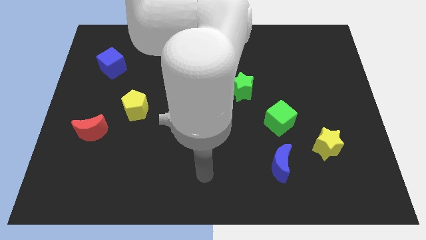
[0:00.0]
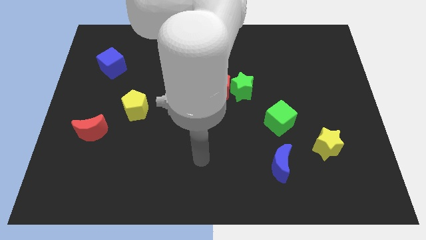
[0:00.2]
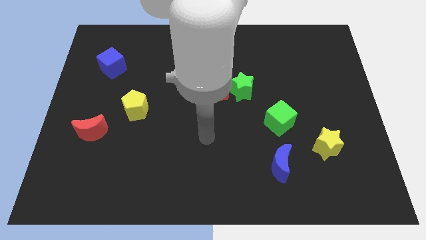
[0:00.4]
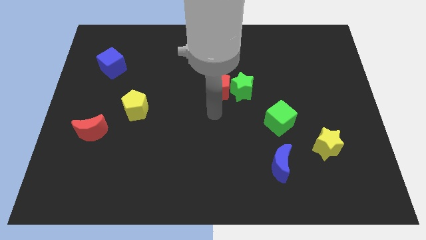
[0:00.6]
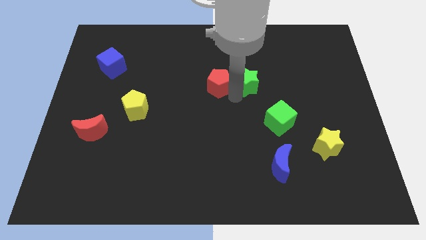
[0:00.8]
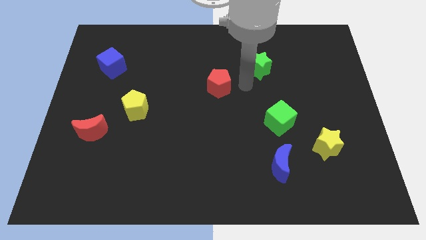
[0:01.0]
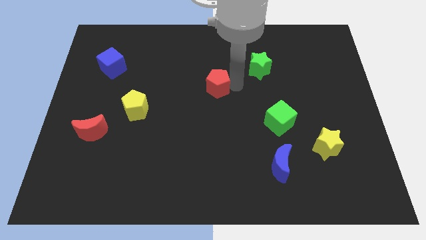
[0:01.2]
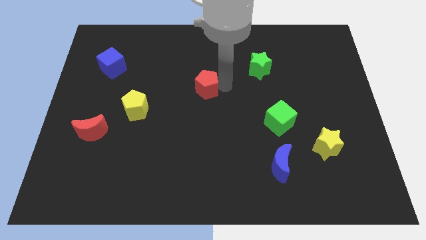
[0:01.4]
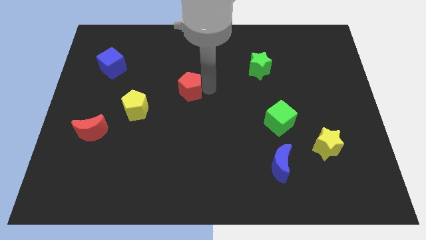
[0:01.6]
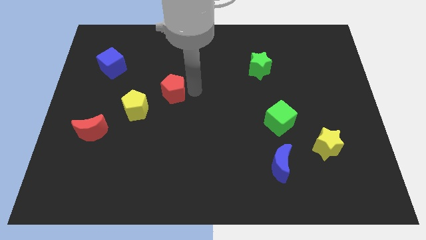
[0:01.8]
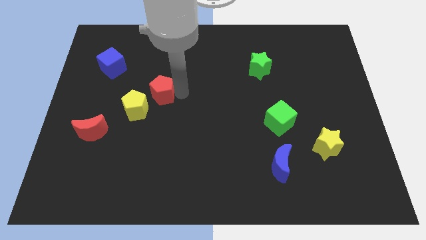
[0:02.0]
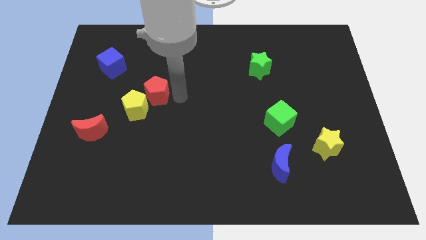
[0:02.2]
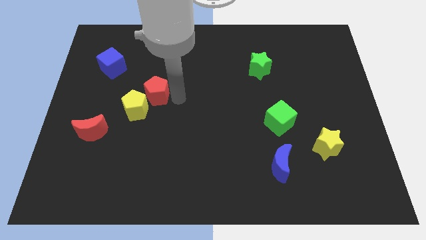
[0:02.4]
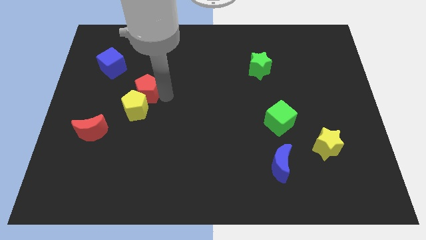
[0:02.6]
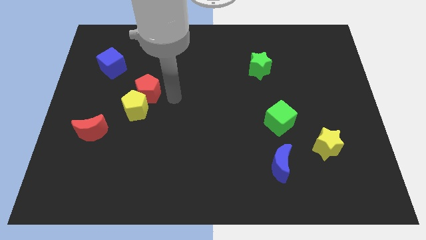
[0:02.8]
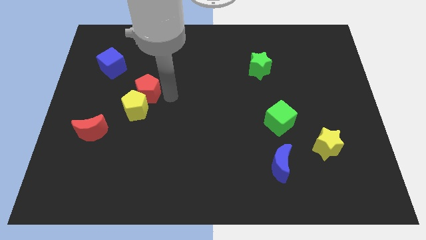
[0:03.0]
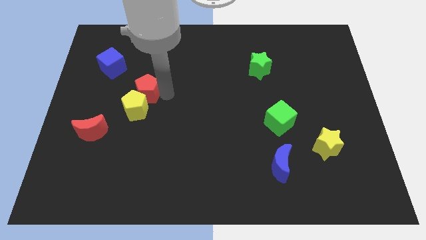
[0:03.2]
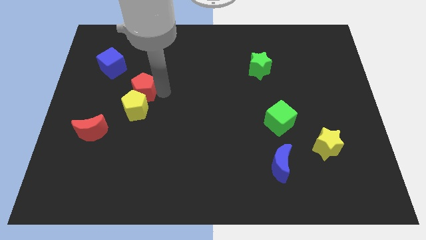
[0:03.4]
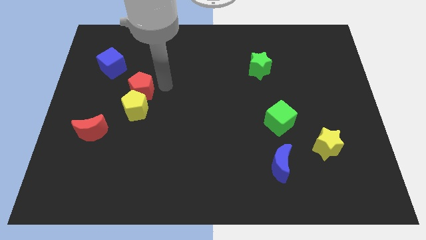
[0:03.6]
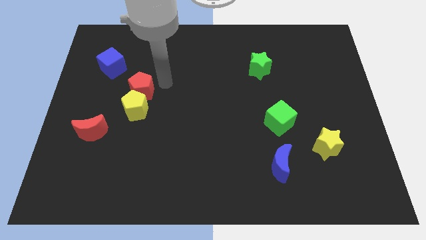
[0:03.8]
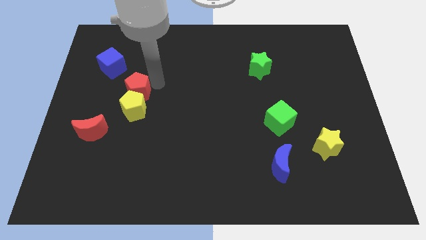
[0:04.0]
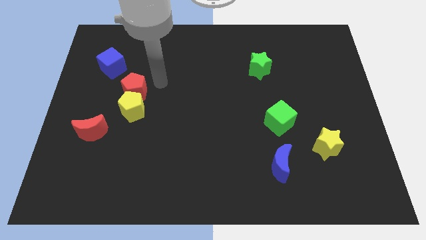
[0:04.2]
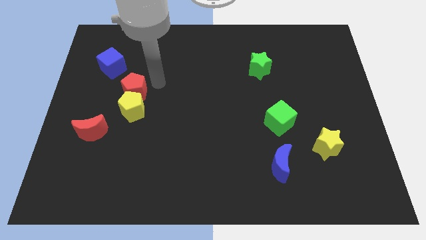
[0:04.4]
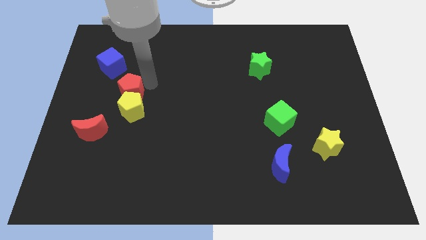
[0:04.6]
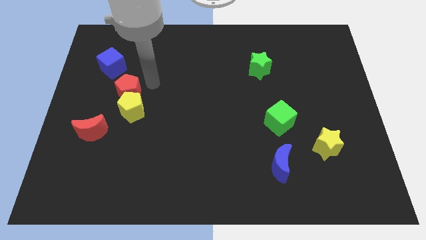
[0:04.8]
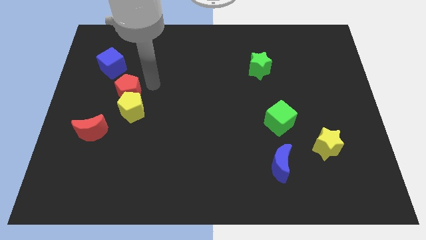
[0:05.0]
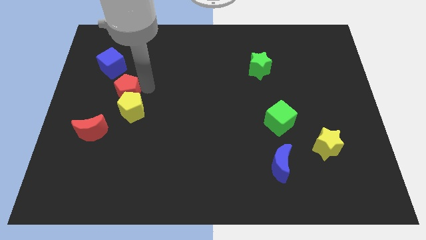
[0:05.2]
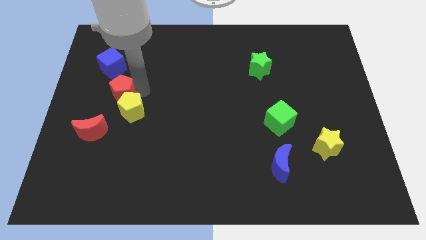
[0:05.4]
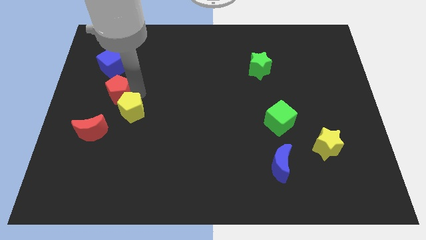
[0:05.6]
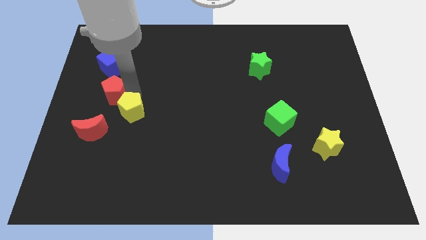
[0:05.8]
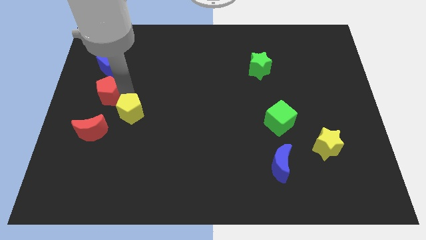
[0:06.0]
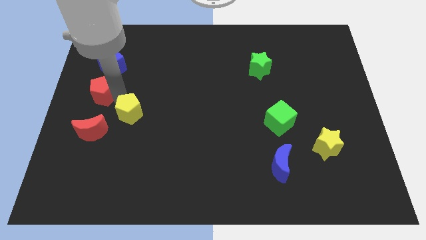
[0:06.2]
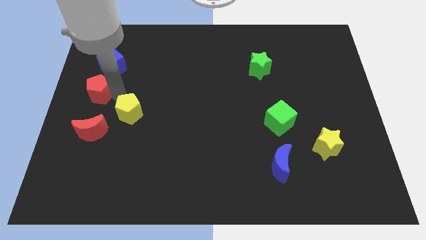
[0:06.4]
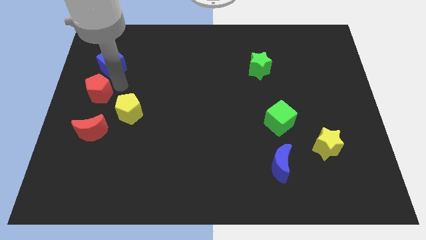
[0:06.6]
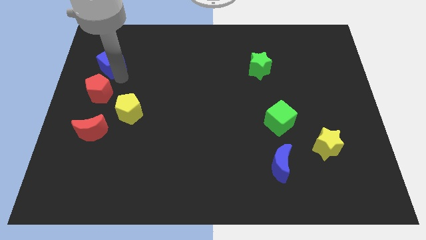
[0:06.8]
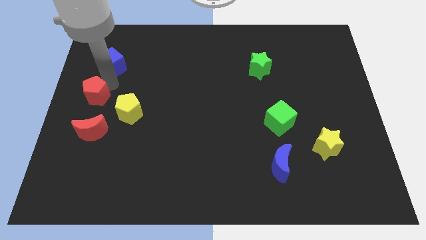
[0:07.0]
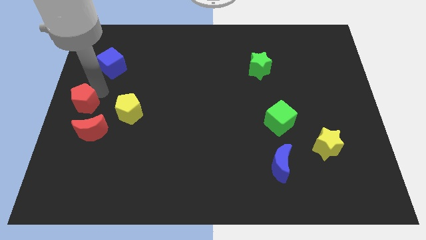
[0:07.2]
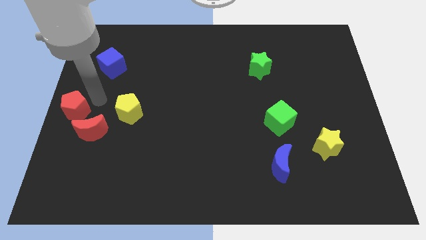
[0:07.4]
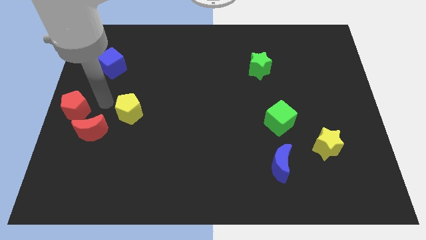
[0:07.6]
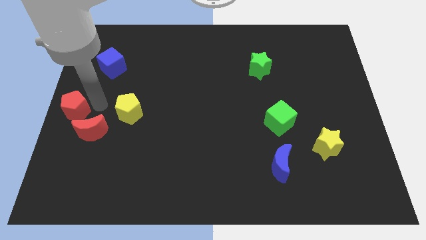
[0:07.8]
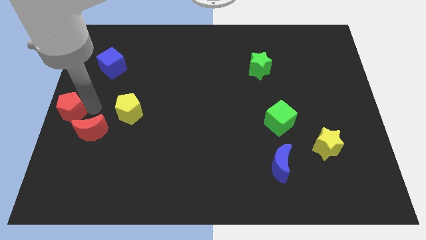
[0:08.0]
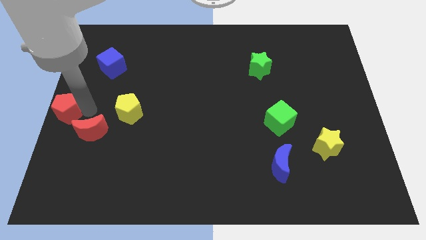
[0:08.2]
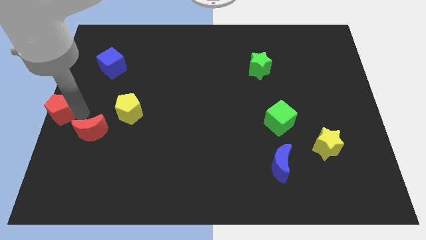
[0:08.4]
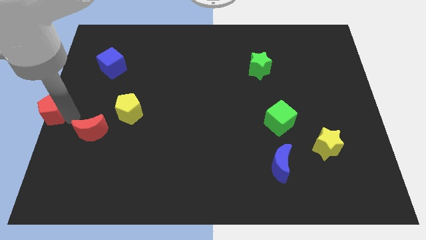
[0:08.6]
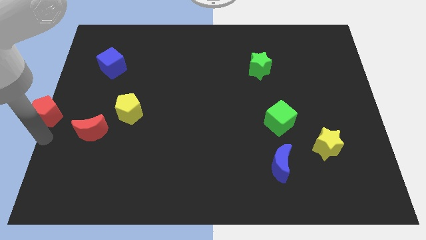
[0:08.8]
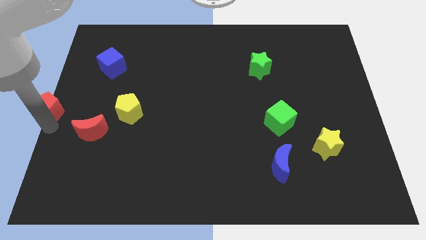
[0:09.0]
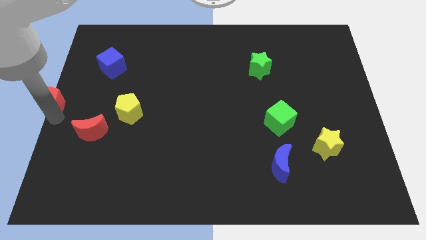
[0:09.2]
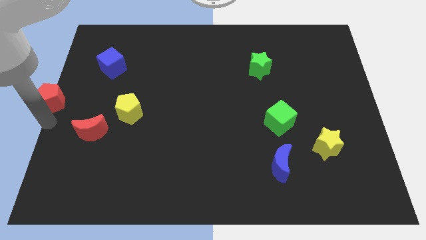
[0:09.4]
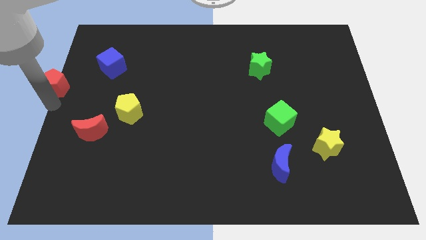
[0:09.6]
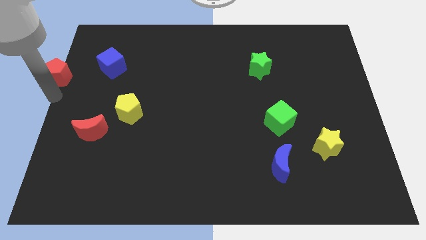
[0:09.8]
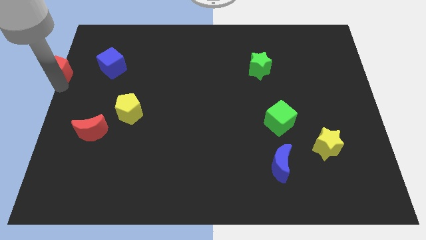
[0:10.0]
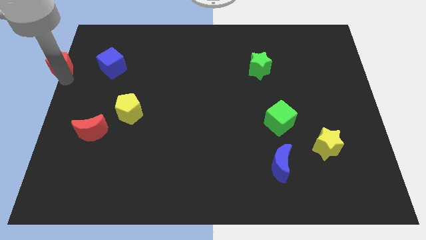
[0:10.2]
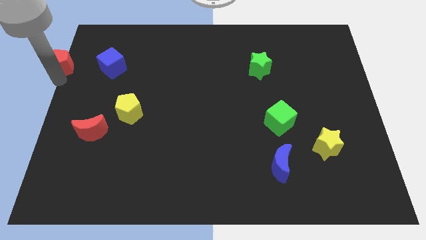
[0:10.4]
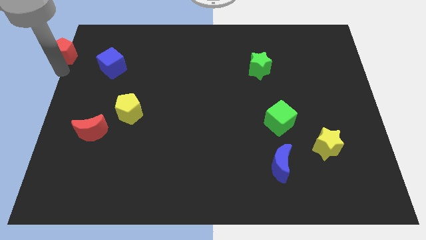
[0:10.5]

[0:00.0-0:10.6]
move the red pentagon to the upper left corner

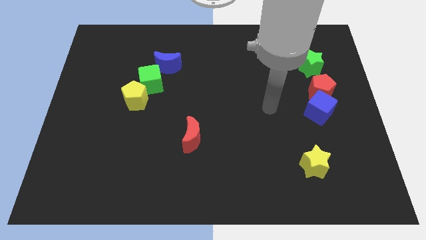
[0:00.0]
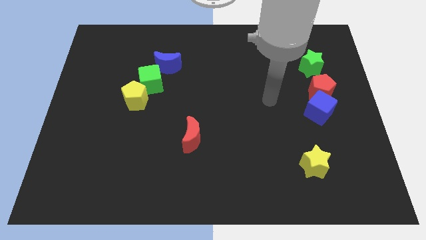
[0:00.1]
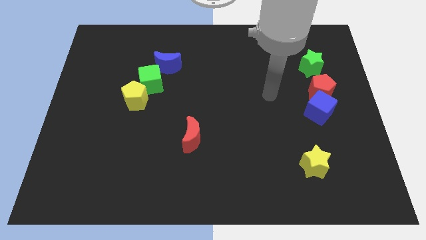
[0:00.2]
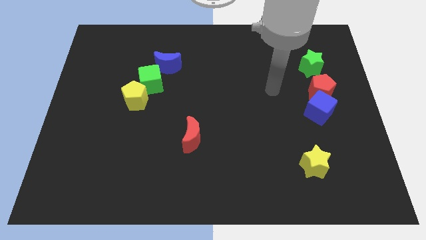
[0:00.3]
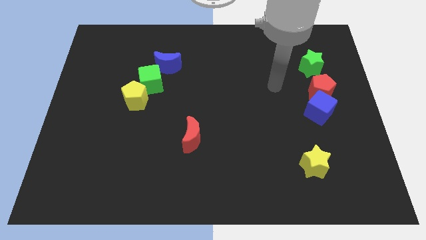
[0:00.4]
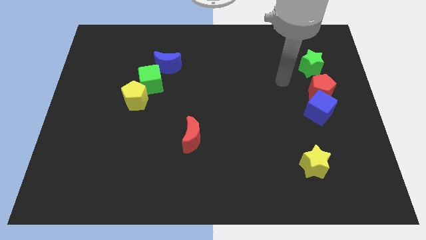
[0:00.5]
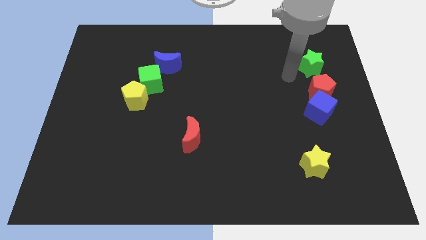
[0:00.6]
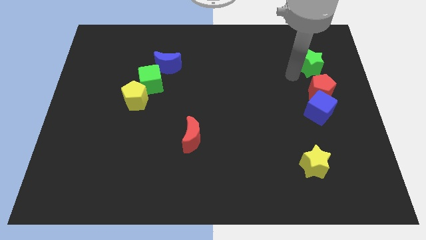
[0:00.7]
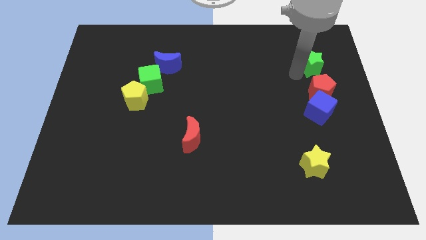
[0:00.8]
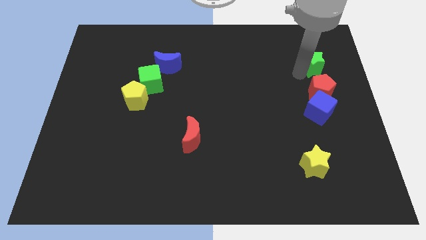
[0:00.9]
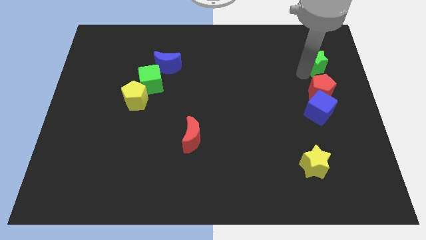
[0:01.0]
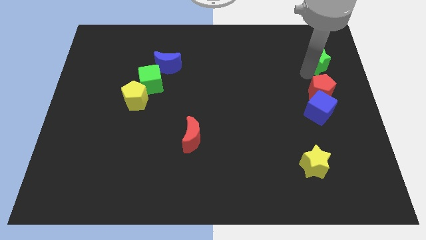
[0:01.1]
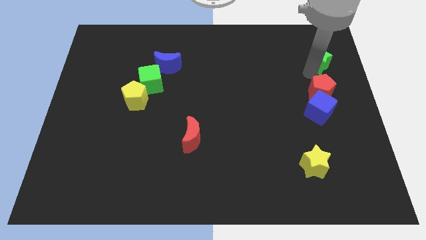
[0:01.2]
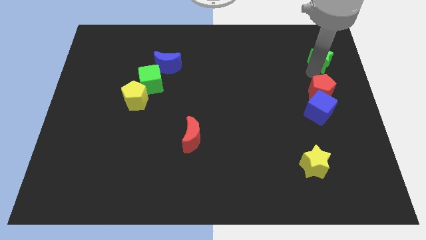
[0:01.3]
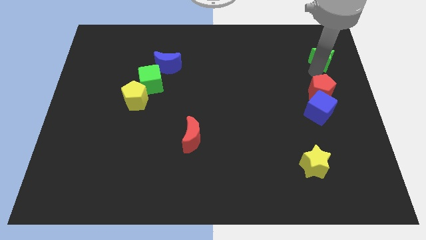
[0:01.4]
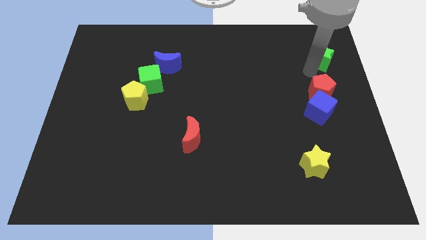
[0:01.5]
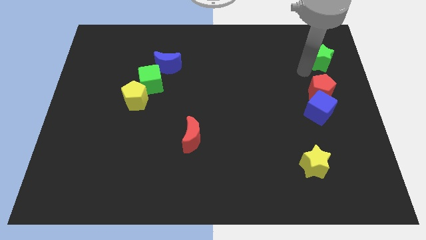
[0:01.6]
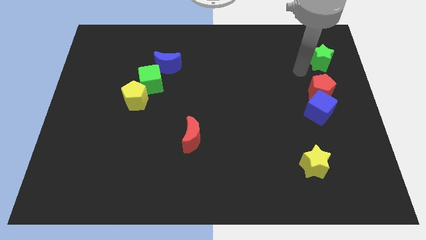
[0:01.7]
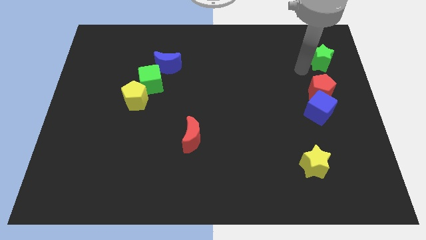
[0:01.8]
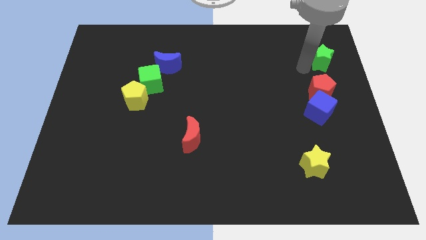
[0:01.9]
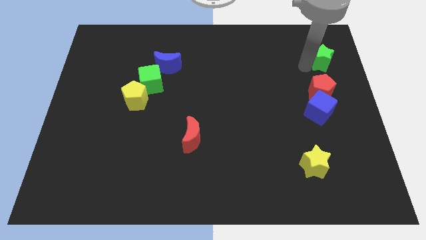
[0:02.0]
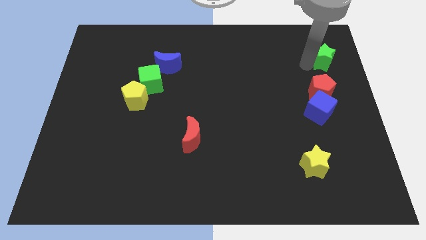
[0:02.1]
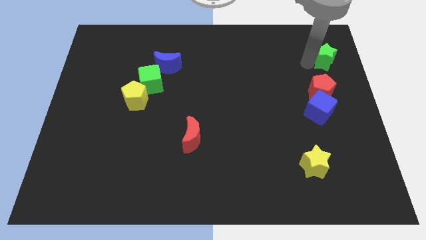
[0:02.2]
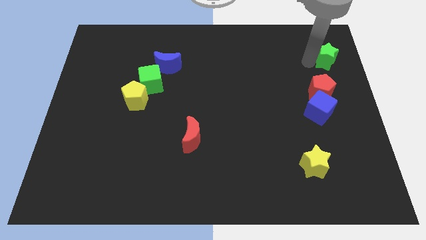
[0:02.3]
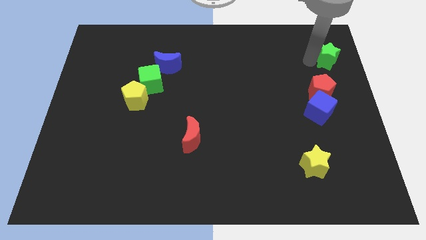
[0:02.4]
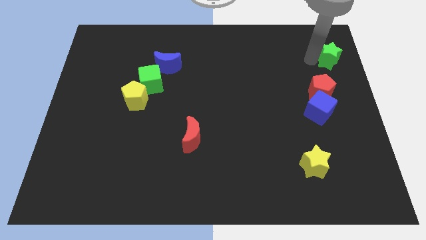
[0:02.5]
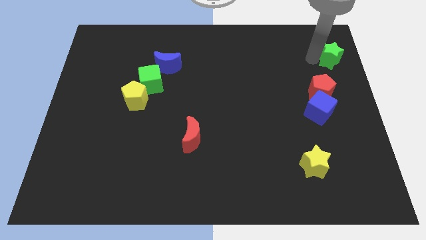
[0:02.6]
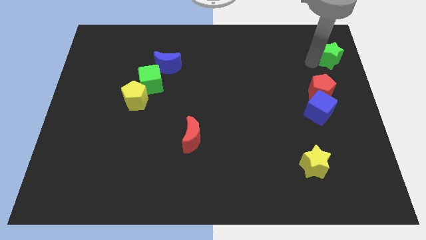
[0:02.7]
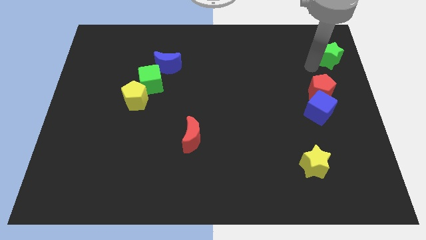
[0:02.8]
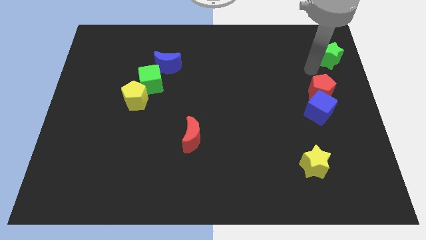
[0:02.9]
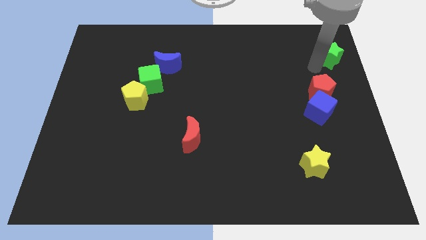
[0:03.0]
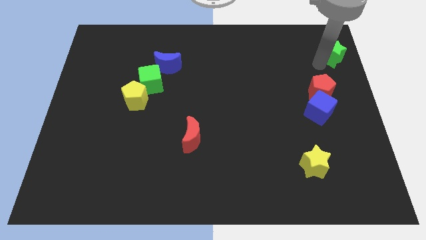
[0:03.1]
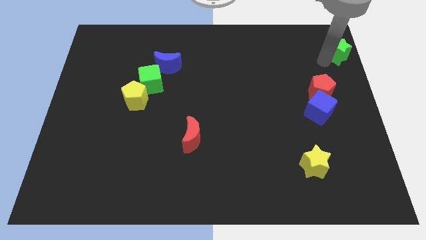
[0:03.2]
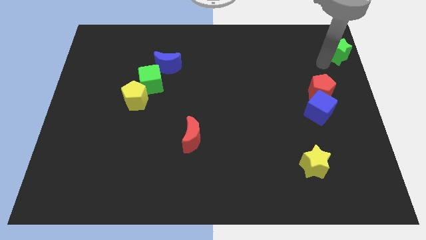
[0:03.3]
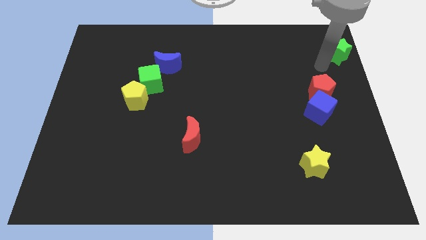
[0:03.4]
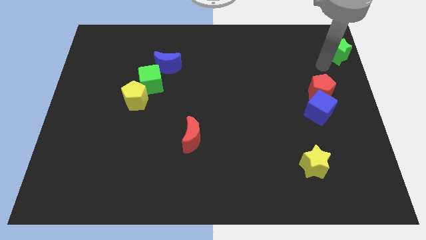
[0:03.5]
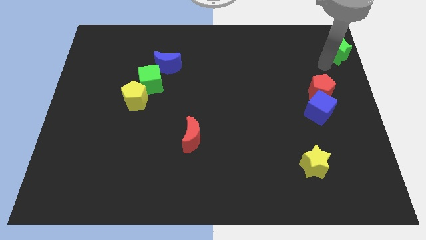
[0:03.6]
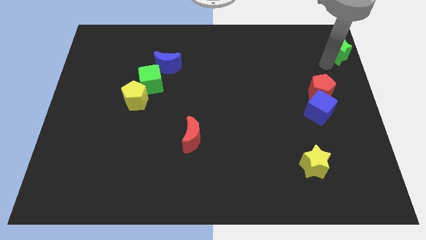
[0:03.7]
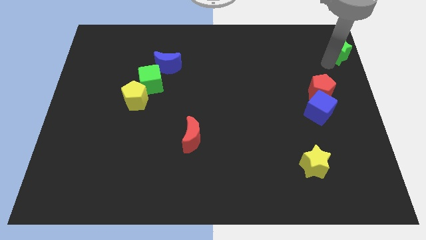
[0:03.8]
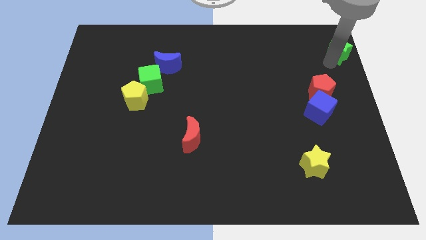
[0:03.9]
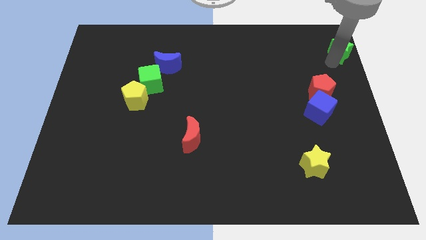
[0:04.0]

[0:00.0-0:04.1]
move the green star to the top right corner
